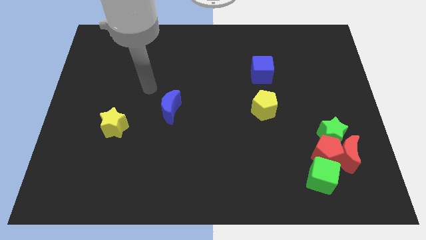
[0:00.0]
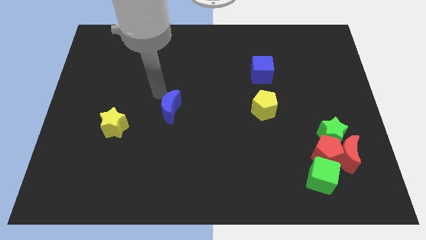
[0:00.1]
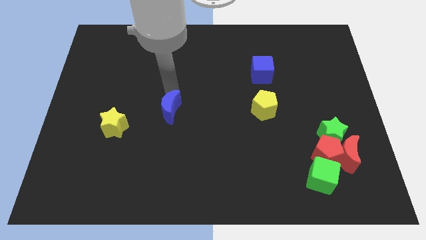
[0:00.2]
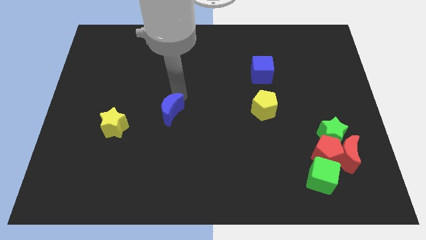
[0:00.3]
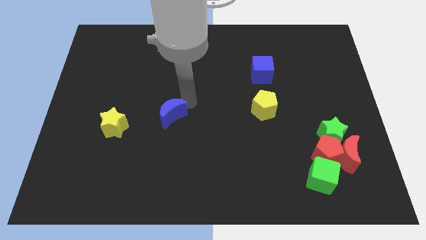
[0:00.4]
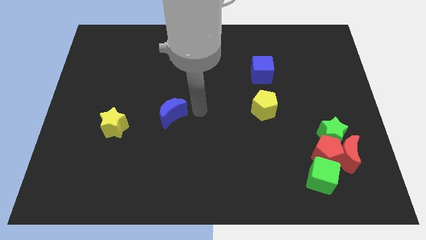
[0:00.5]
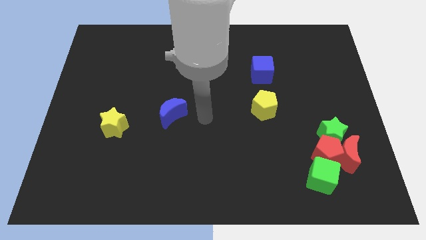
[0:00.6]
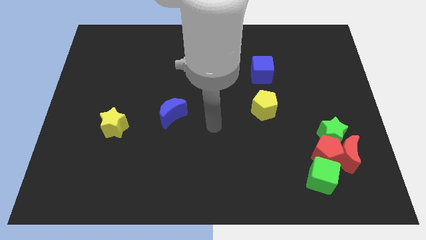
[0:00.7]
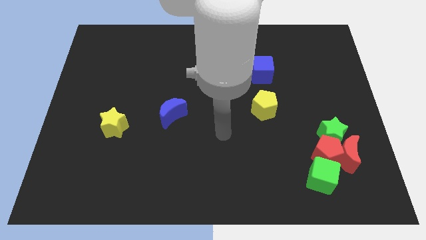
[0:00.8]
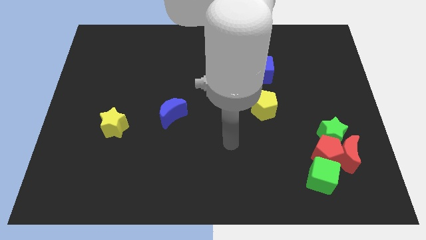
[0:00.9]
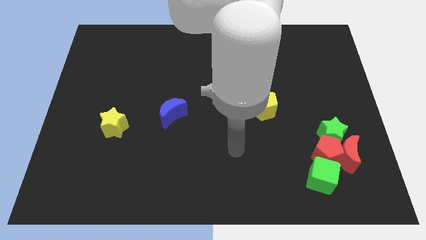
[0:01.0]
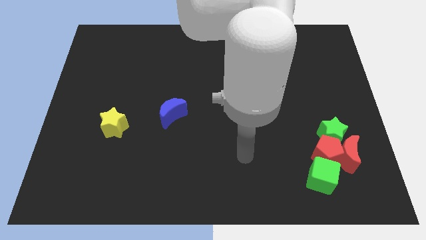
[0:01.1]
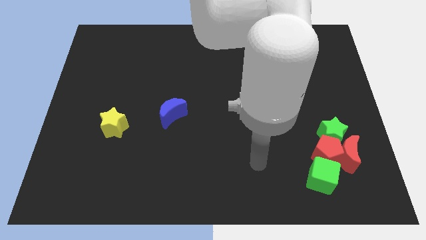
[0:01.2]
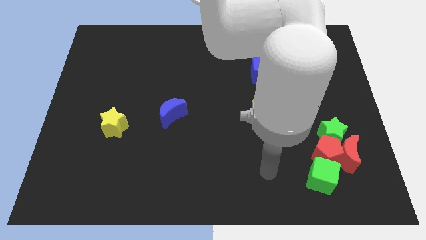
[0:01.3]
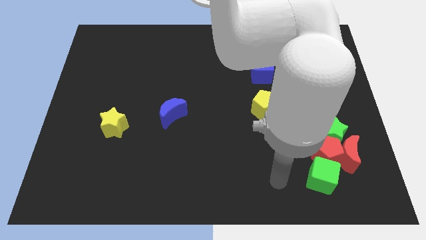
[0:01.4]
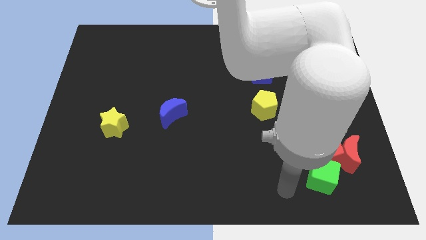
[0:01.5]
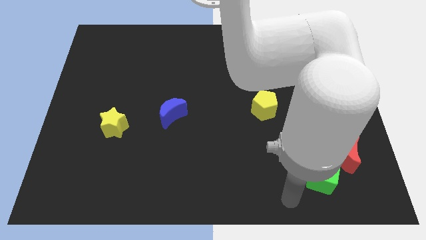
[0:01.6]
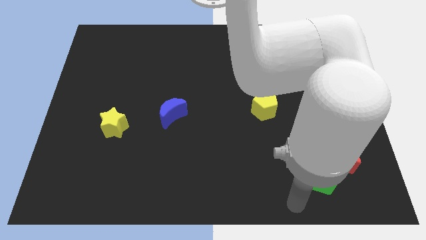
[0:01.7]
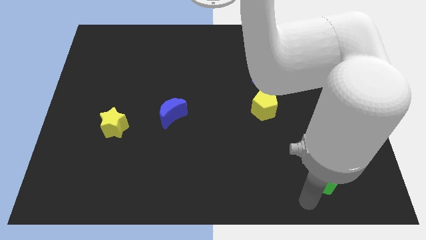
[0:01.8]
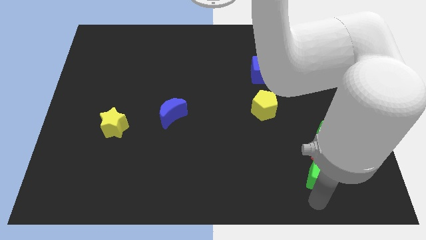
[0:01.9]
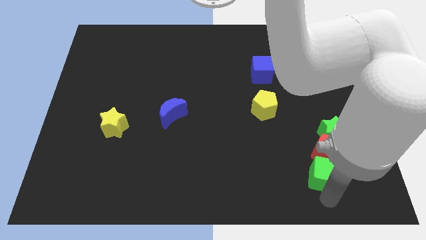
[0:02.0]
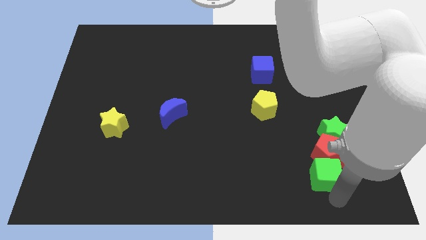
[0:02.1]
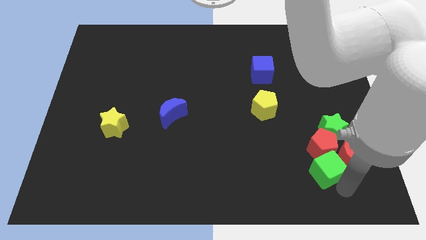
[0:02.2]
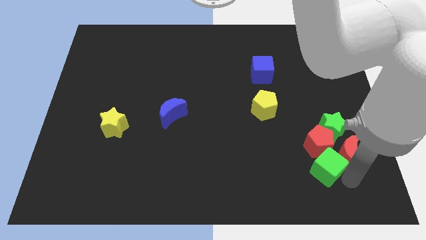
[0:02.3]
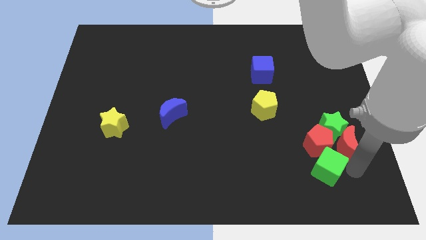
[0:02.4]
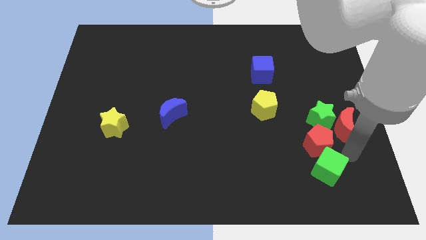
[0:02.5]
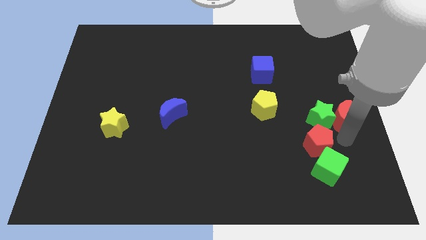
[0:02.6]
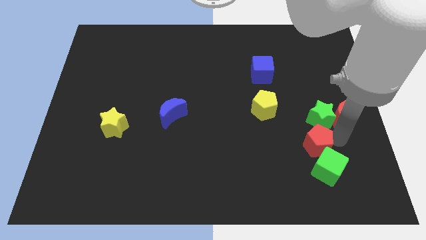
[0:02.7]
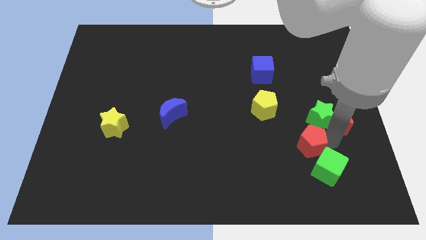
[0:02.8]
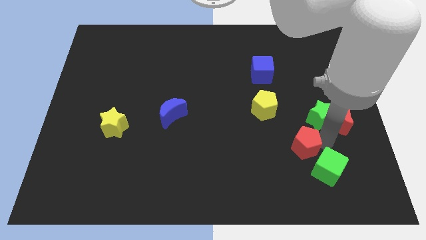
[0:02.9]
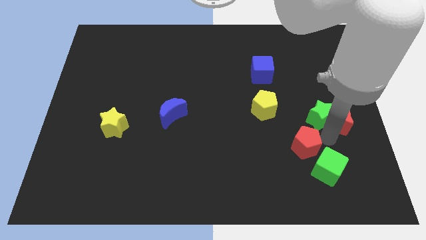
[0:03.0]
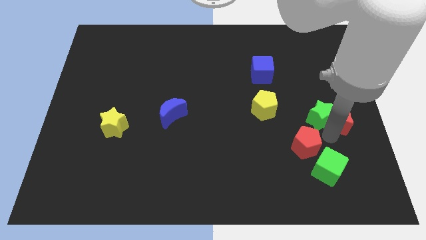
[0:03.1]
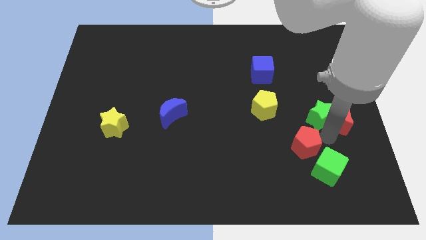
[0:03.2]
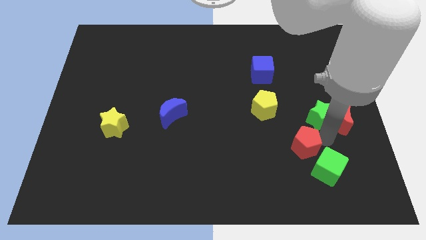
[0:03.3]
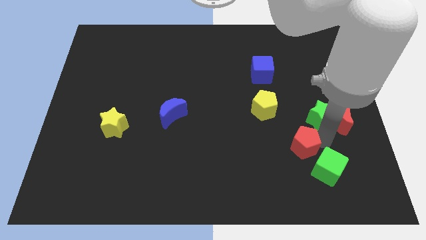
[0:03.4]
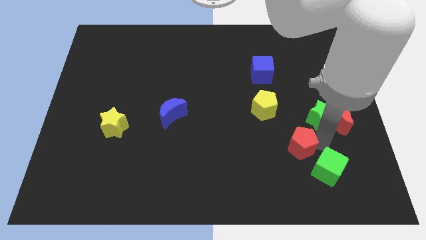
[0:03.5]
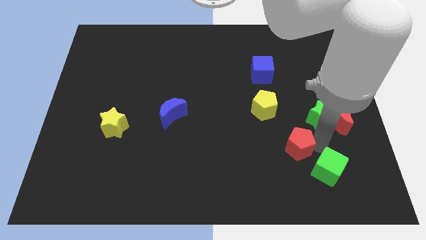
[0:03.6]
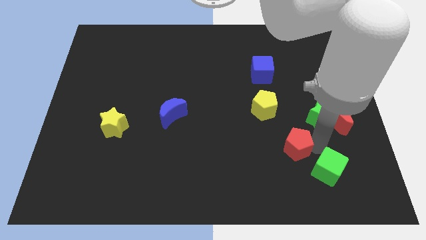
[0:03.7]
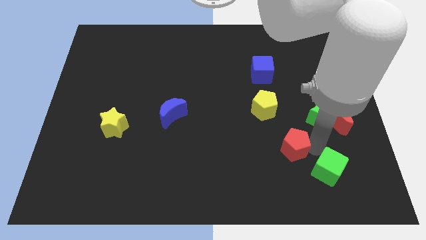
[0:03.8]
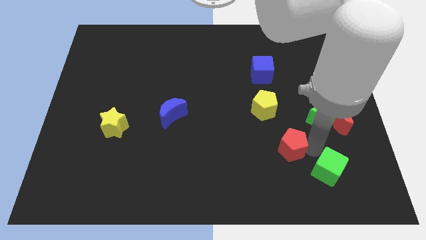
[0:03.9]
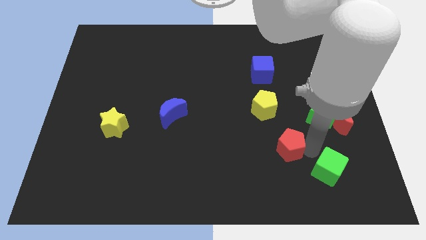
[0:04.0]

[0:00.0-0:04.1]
separate the red pentagon from the red moon, green star, and green cube

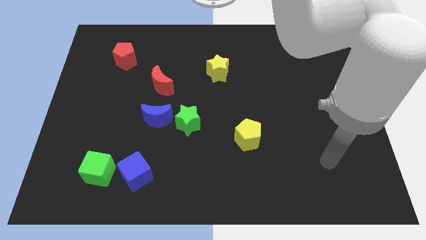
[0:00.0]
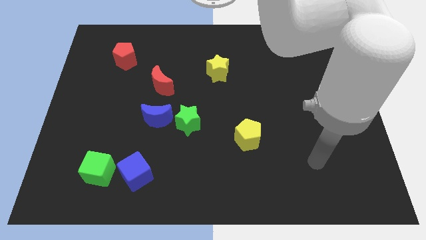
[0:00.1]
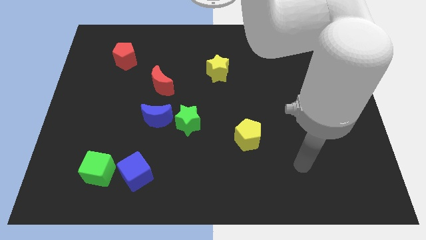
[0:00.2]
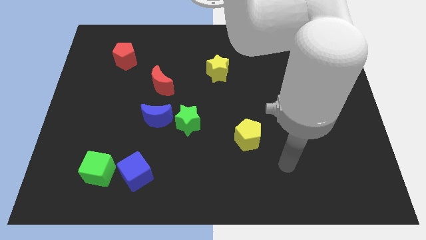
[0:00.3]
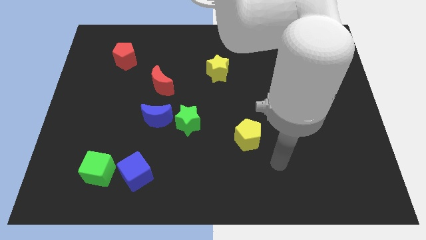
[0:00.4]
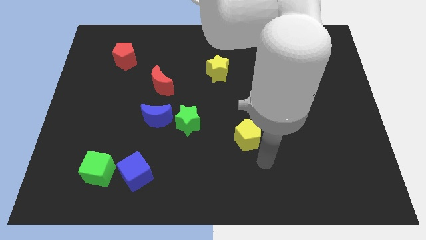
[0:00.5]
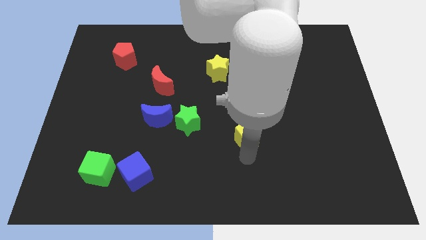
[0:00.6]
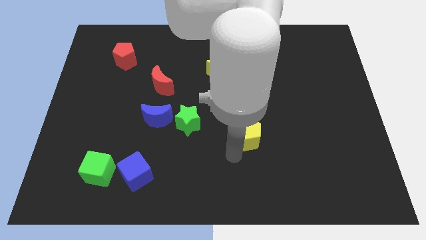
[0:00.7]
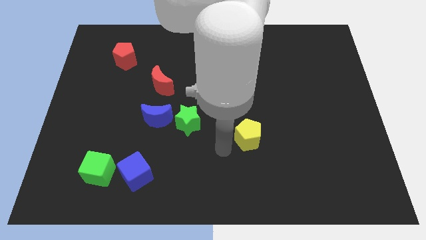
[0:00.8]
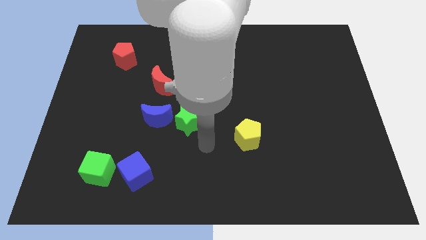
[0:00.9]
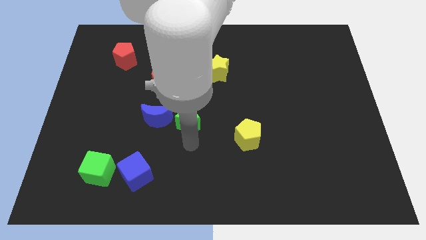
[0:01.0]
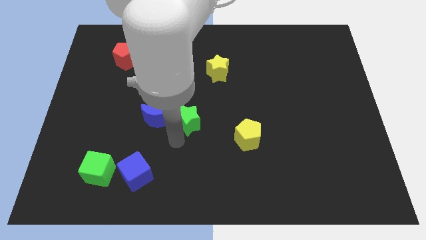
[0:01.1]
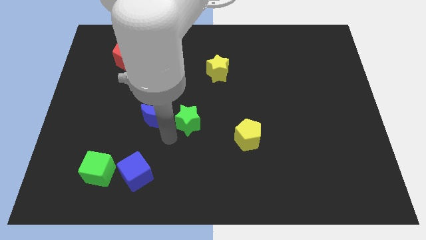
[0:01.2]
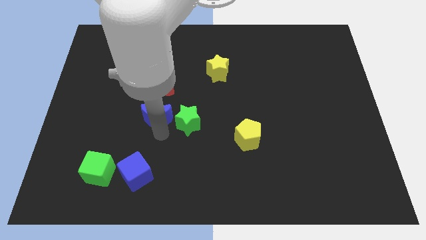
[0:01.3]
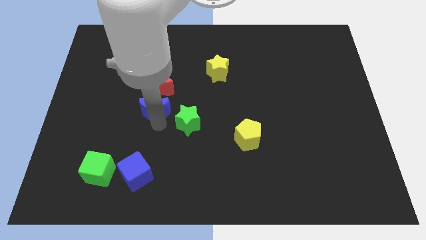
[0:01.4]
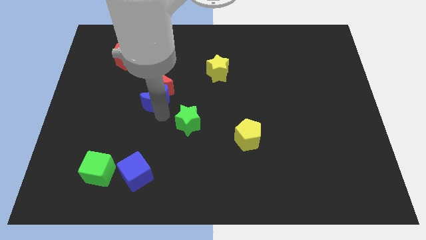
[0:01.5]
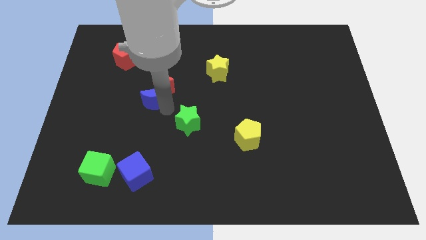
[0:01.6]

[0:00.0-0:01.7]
move the green star away from the blue moon

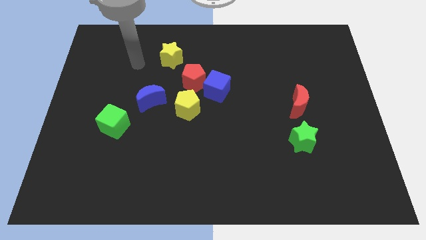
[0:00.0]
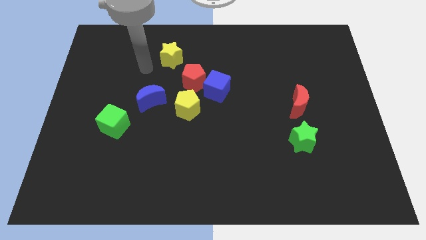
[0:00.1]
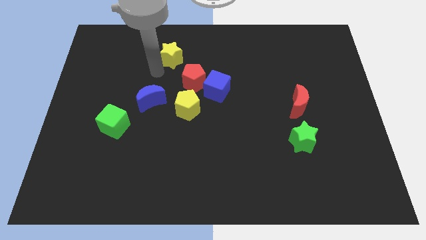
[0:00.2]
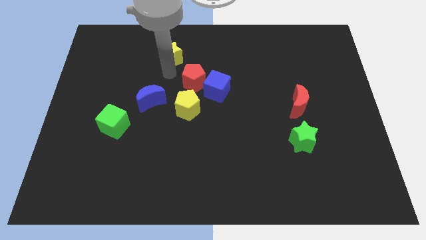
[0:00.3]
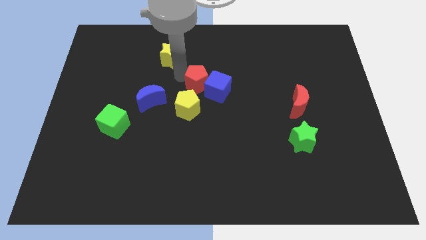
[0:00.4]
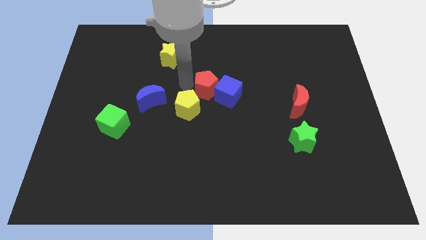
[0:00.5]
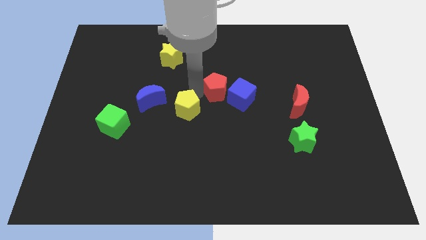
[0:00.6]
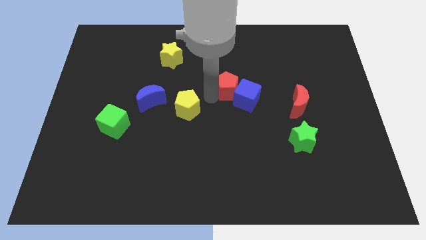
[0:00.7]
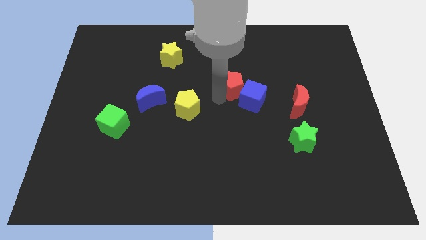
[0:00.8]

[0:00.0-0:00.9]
separate the blue cube from the red pentagon and yellow pentagon

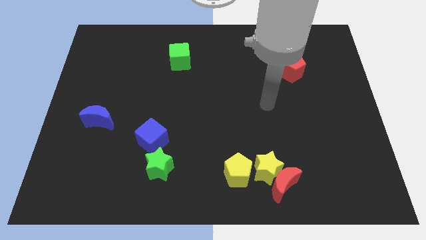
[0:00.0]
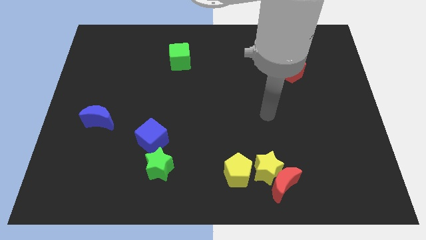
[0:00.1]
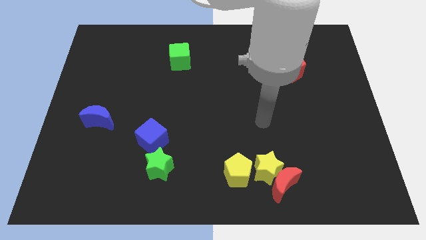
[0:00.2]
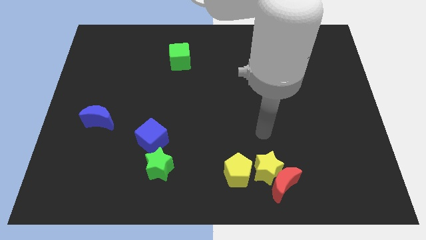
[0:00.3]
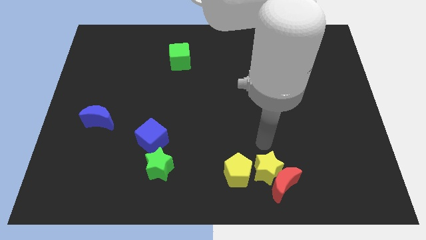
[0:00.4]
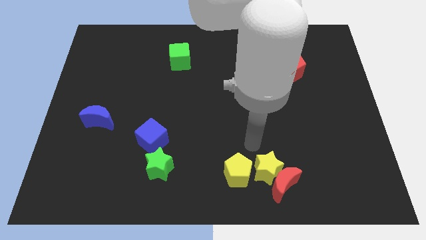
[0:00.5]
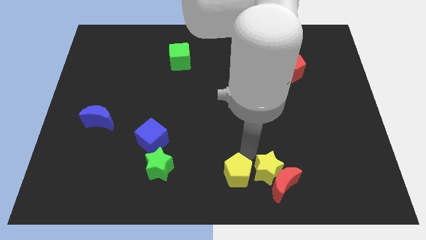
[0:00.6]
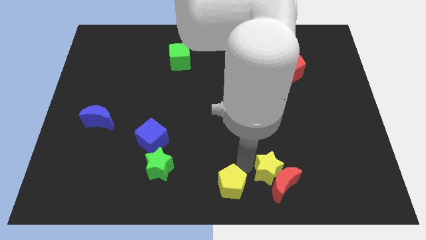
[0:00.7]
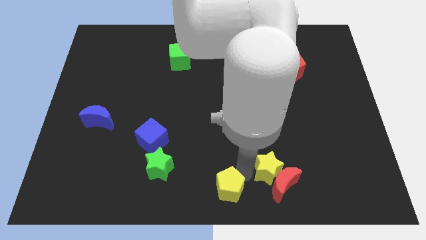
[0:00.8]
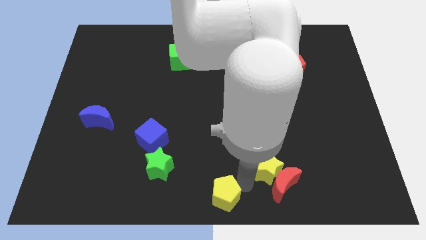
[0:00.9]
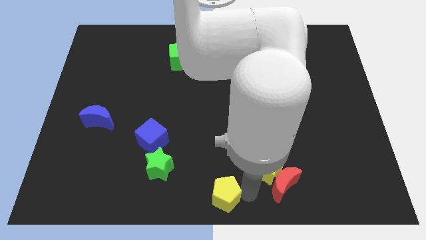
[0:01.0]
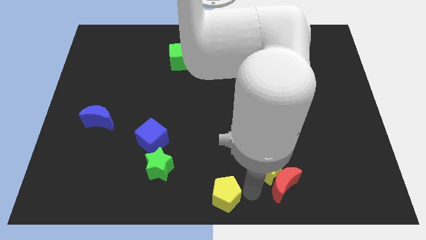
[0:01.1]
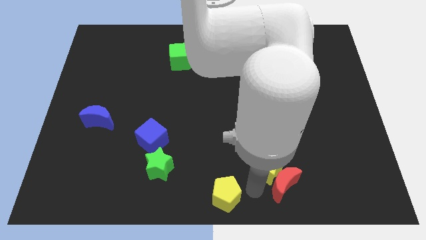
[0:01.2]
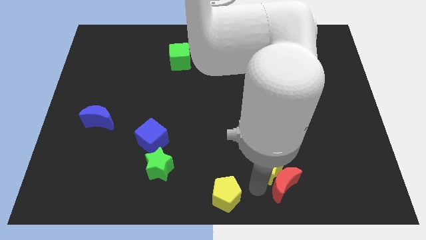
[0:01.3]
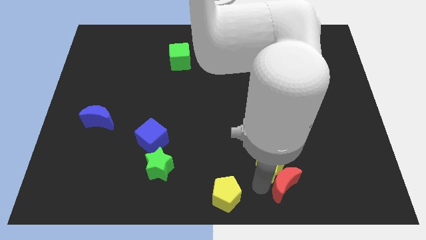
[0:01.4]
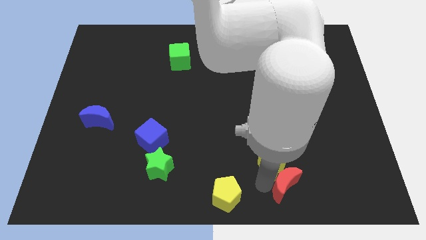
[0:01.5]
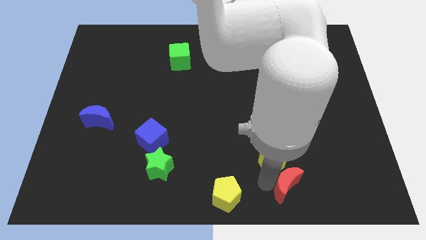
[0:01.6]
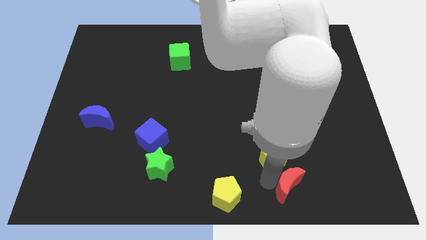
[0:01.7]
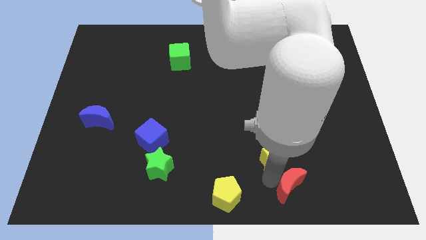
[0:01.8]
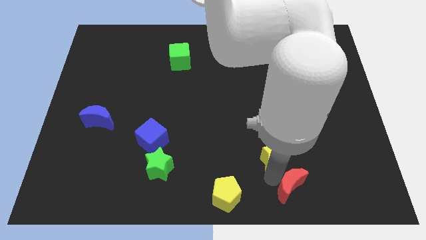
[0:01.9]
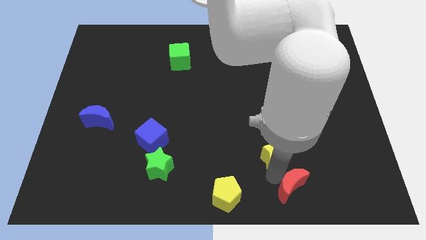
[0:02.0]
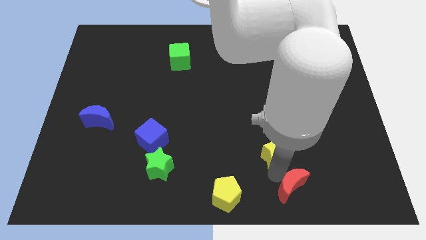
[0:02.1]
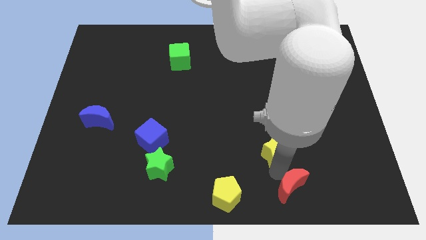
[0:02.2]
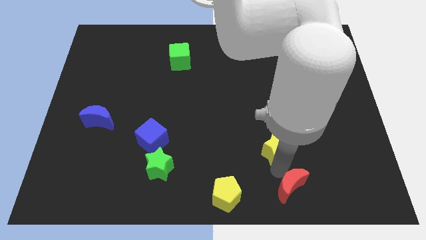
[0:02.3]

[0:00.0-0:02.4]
move the yellow star away from the red moon and yellow pentagon

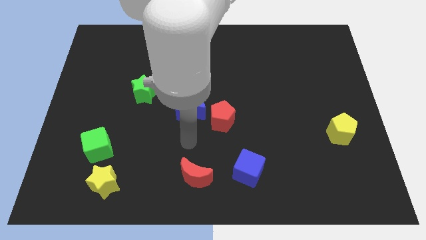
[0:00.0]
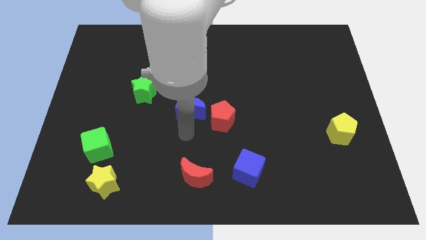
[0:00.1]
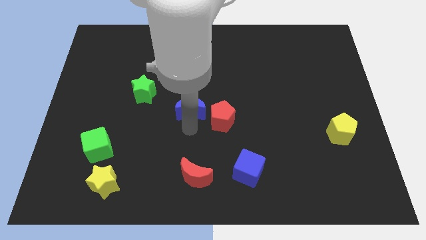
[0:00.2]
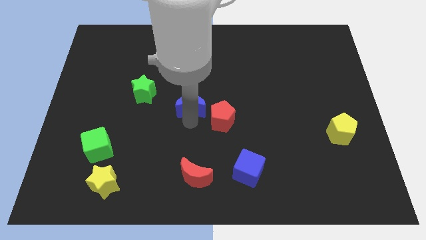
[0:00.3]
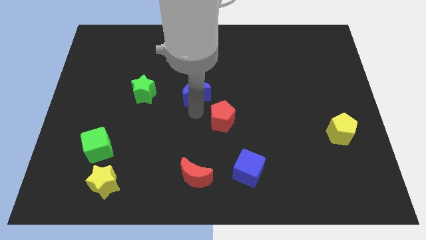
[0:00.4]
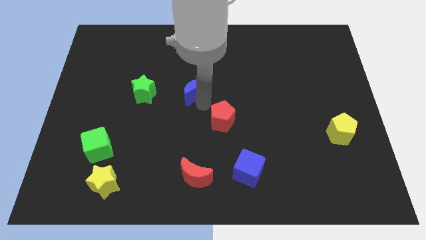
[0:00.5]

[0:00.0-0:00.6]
separate the red pentagon from the blue moon
